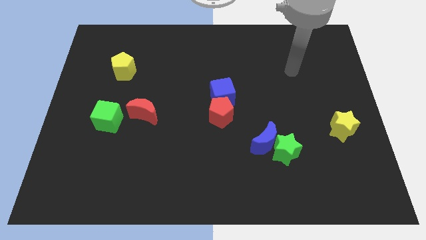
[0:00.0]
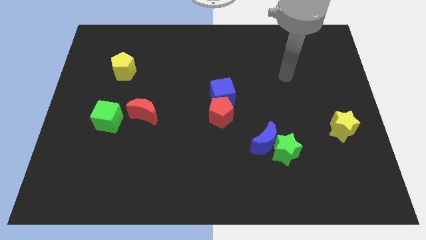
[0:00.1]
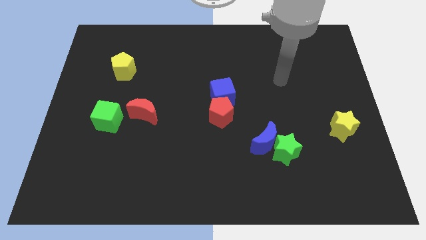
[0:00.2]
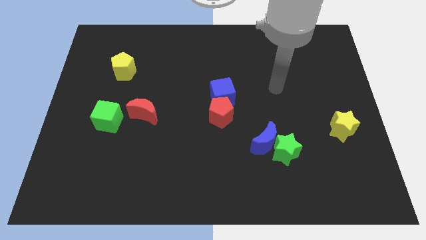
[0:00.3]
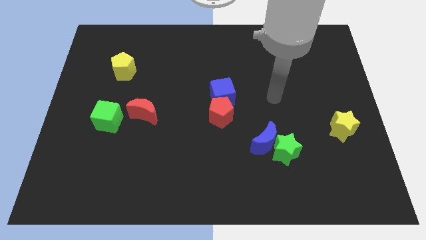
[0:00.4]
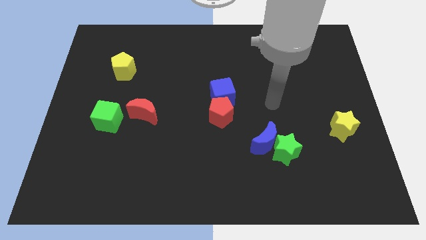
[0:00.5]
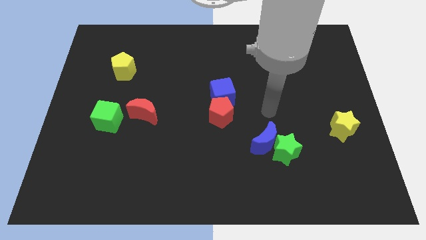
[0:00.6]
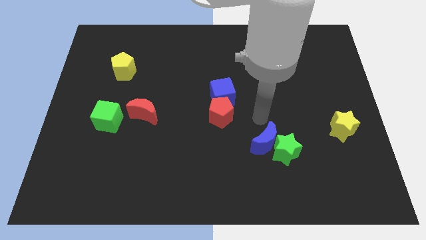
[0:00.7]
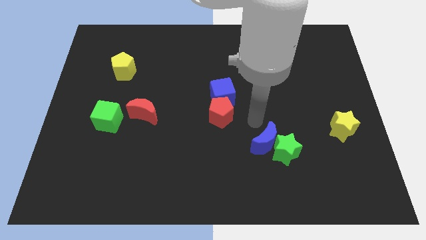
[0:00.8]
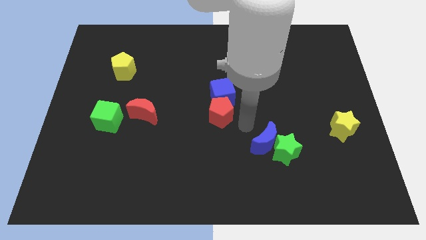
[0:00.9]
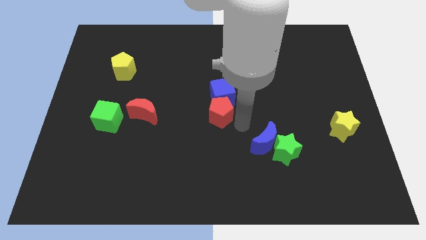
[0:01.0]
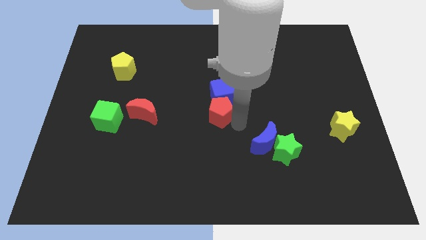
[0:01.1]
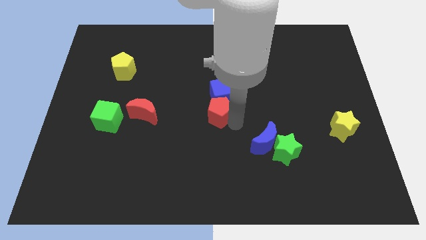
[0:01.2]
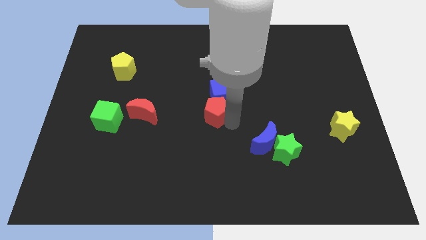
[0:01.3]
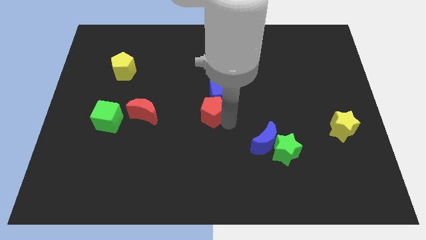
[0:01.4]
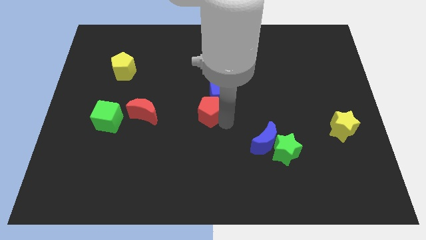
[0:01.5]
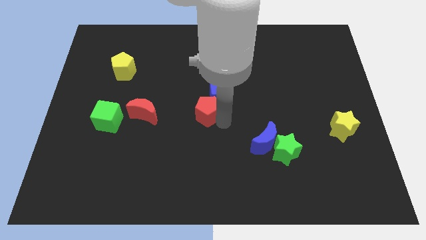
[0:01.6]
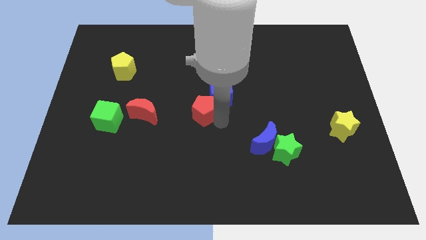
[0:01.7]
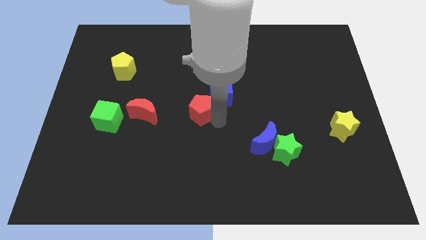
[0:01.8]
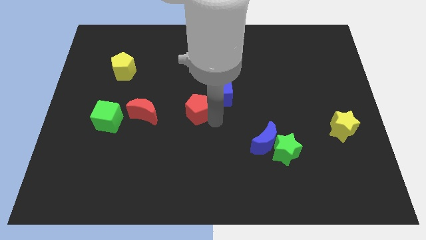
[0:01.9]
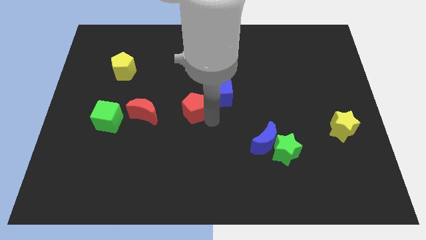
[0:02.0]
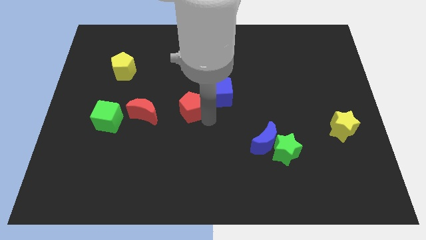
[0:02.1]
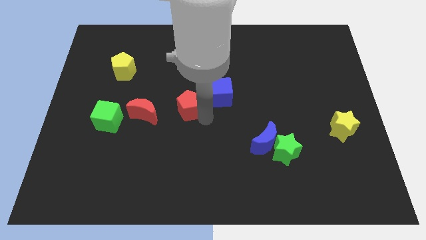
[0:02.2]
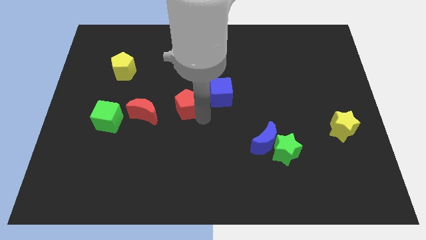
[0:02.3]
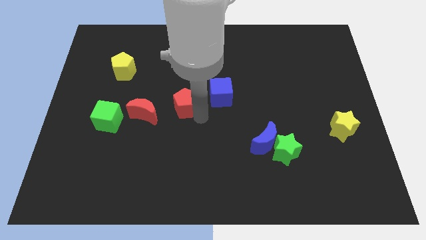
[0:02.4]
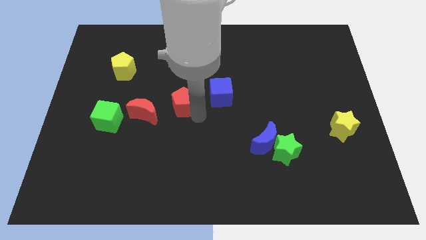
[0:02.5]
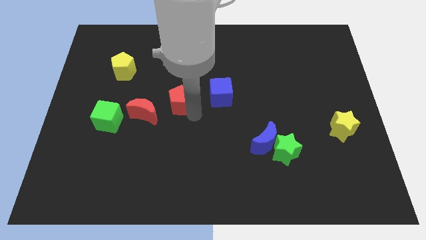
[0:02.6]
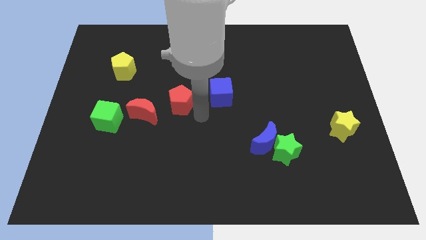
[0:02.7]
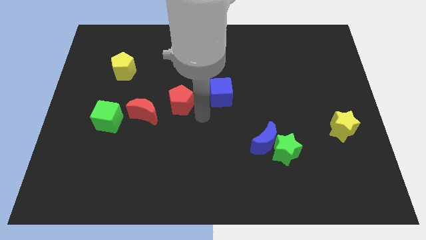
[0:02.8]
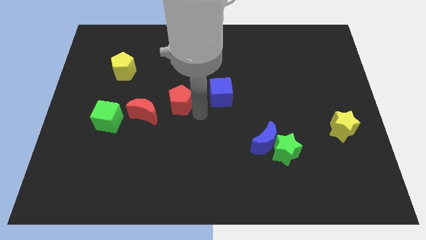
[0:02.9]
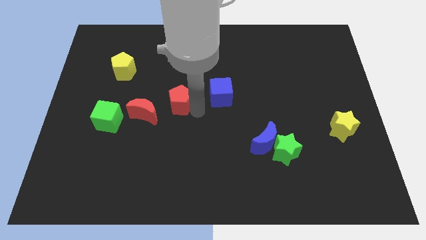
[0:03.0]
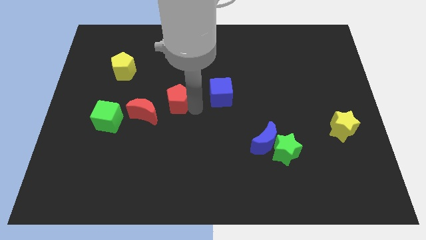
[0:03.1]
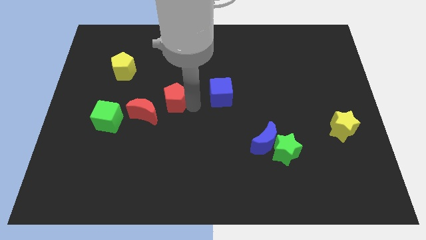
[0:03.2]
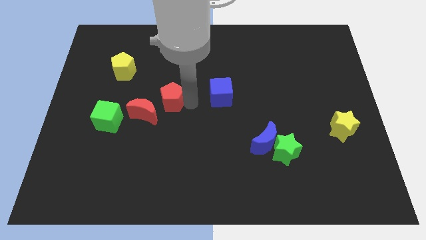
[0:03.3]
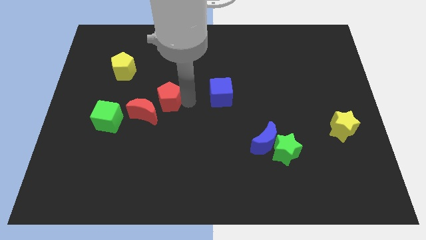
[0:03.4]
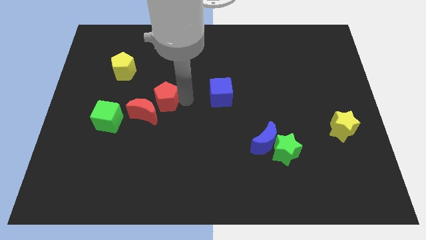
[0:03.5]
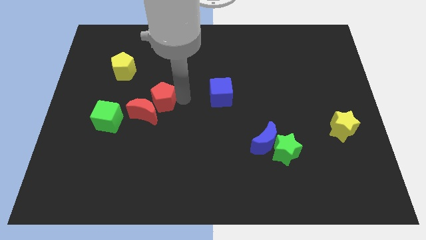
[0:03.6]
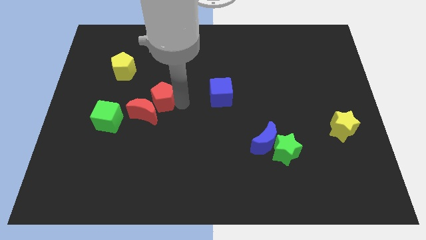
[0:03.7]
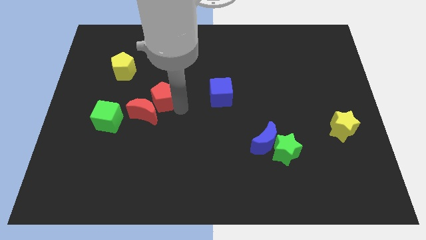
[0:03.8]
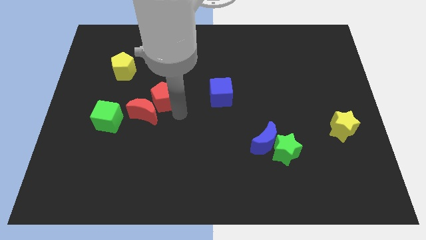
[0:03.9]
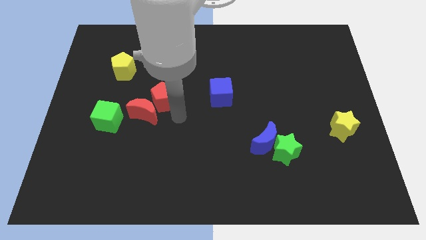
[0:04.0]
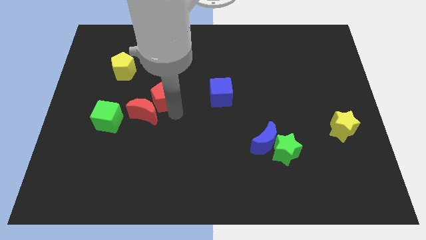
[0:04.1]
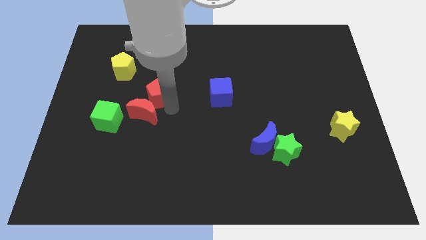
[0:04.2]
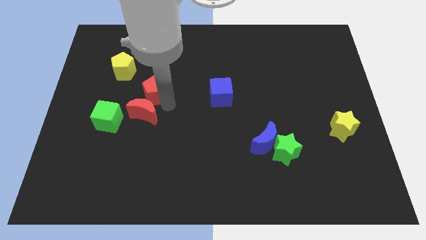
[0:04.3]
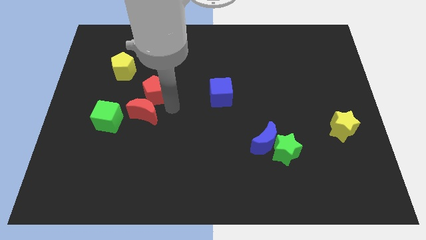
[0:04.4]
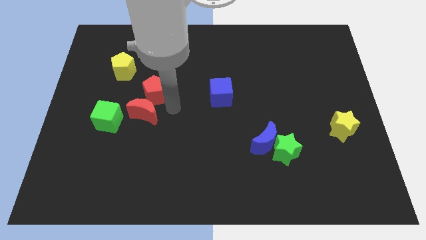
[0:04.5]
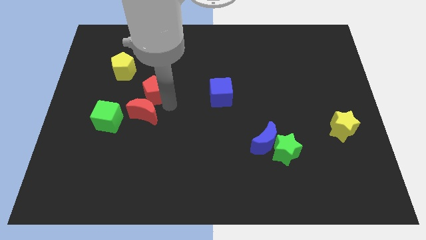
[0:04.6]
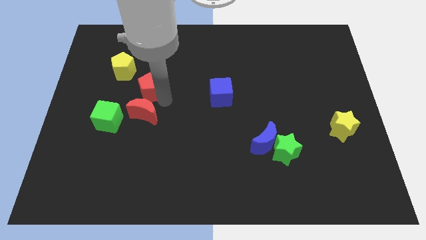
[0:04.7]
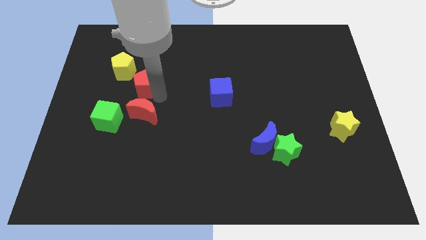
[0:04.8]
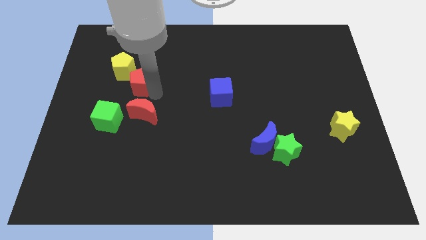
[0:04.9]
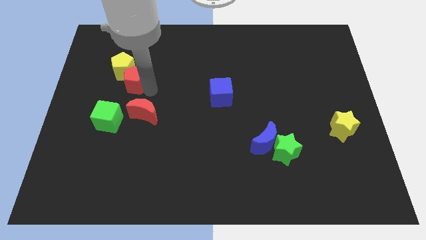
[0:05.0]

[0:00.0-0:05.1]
push the red pentagon towards the yellow pentagon
